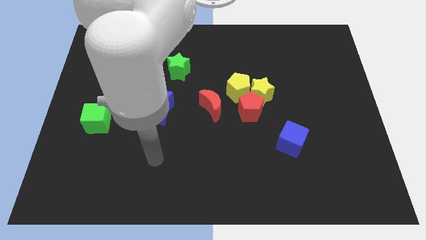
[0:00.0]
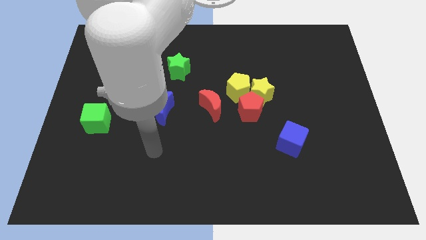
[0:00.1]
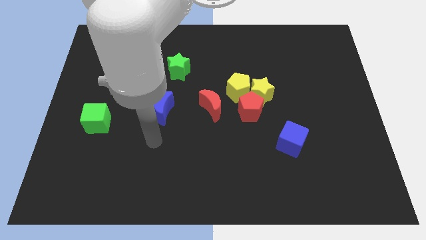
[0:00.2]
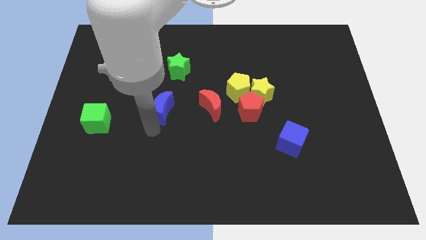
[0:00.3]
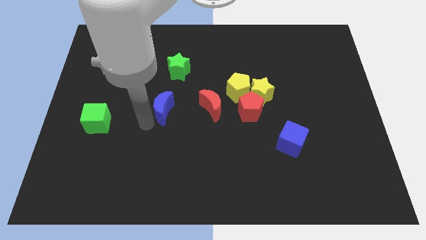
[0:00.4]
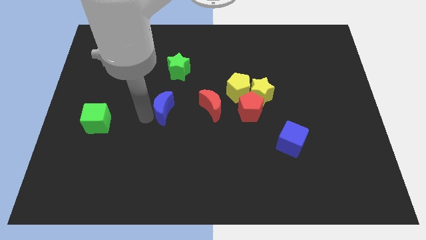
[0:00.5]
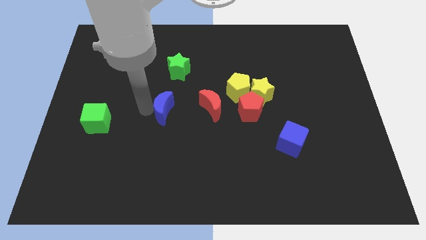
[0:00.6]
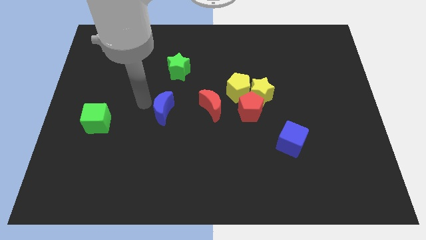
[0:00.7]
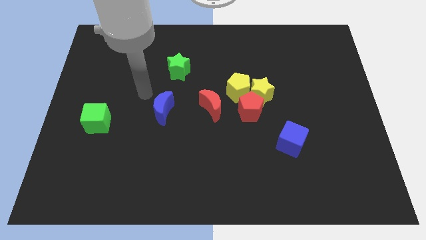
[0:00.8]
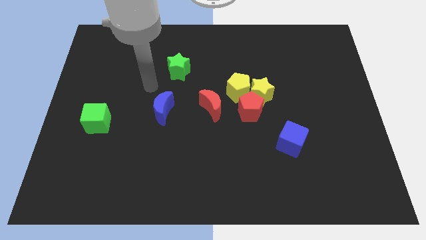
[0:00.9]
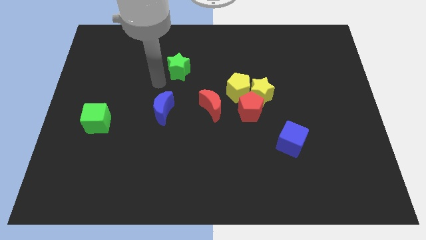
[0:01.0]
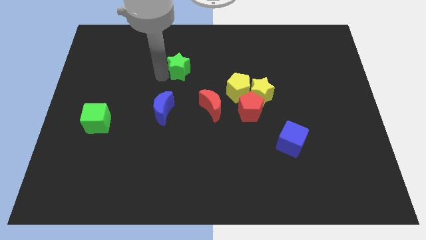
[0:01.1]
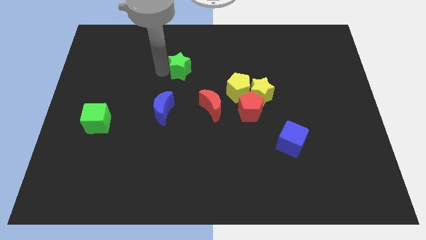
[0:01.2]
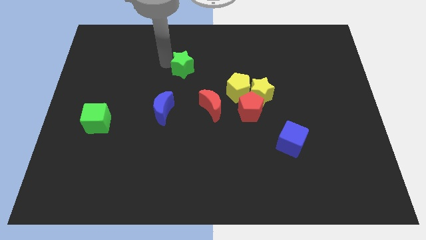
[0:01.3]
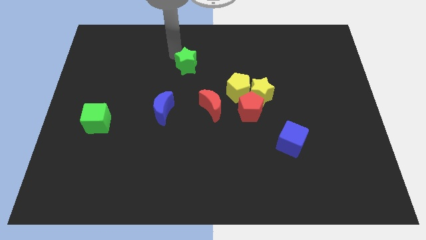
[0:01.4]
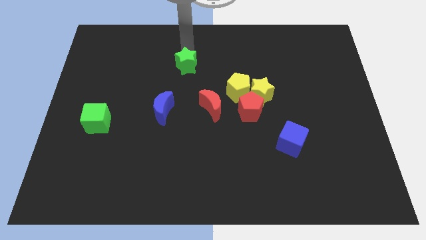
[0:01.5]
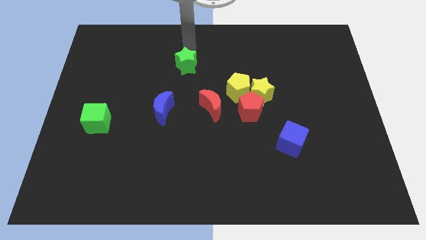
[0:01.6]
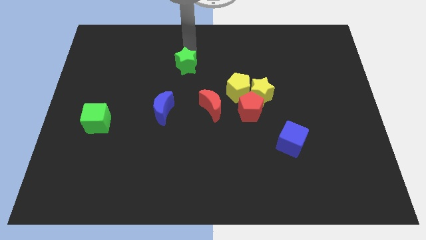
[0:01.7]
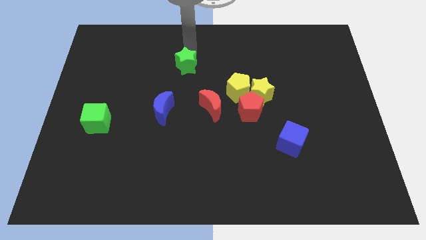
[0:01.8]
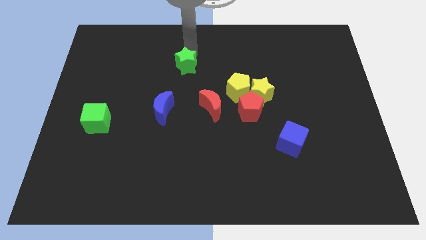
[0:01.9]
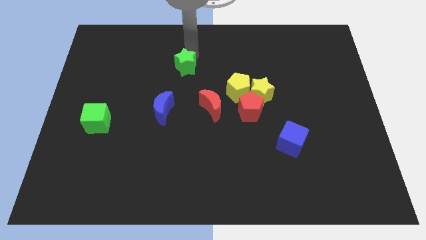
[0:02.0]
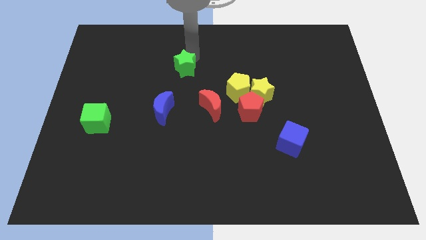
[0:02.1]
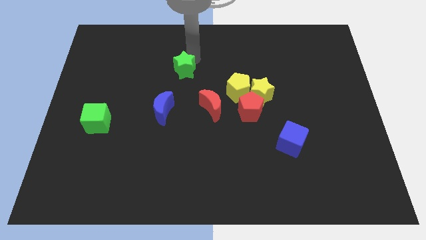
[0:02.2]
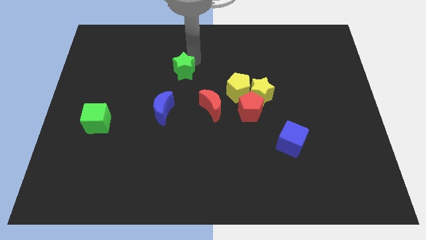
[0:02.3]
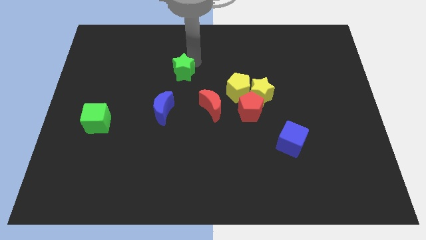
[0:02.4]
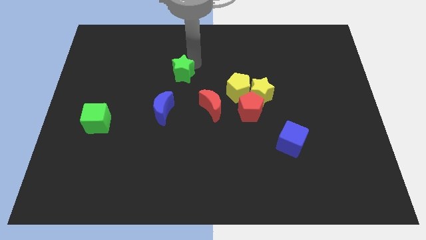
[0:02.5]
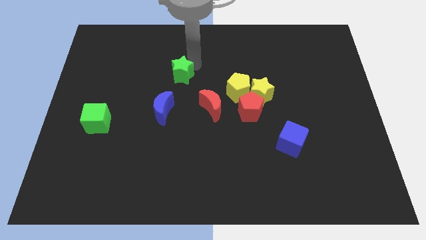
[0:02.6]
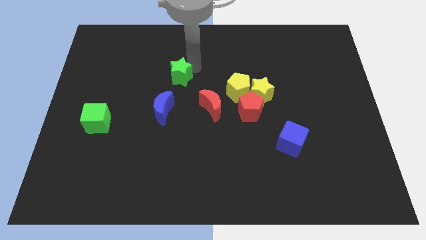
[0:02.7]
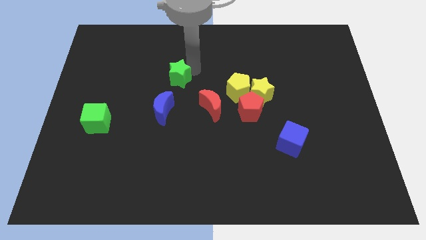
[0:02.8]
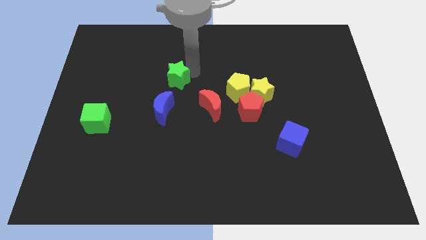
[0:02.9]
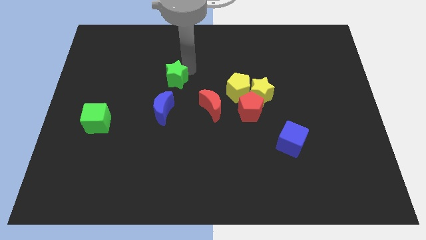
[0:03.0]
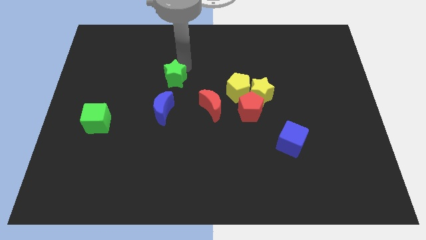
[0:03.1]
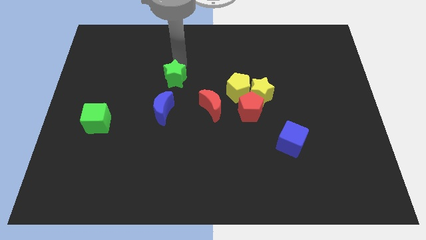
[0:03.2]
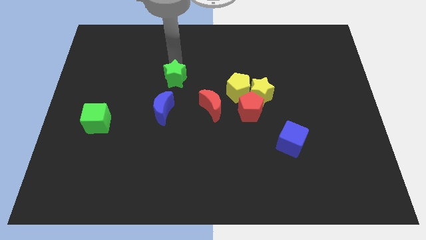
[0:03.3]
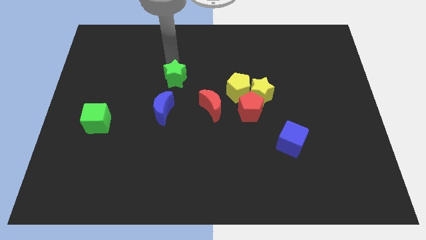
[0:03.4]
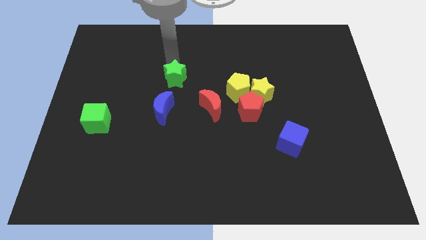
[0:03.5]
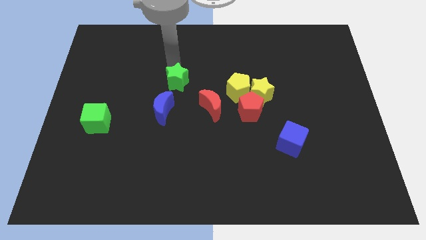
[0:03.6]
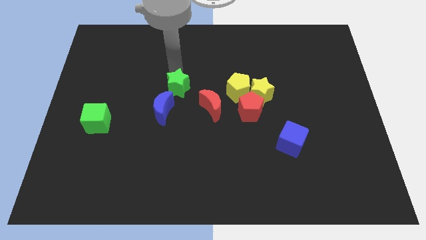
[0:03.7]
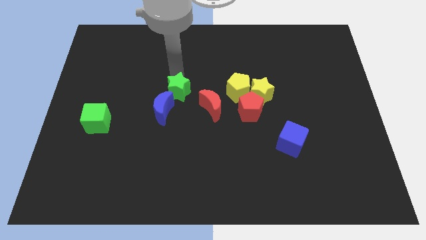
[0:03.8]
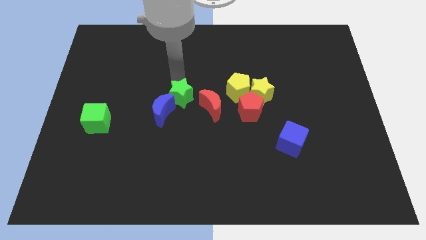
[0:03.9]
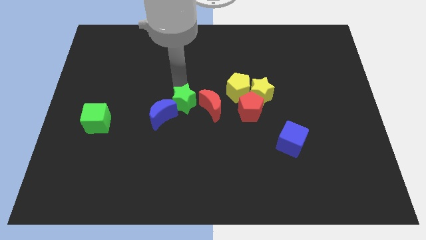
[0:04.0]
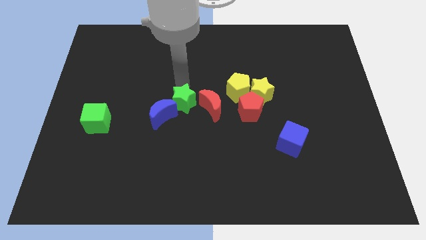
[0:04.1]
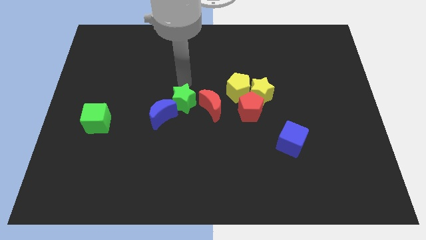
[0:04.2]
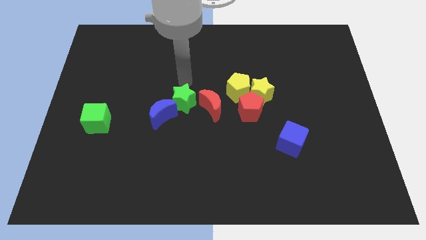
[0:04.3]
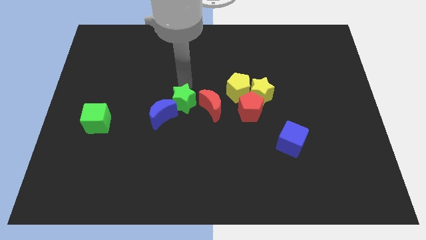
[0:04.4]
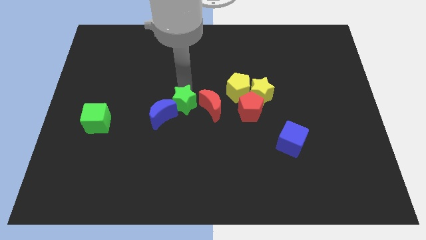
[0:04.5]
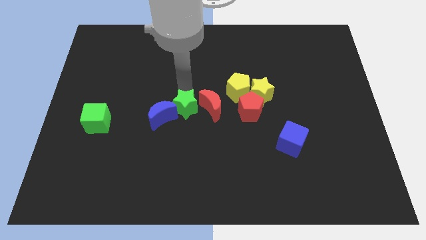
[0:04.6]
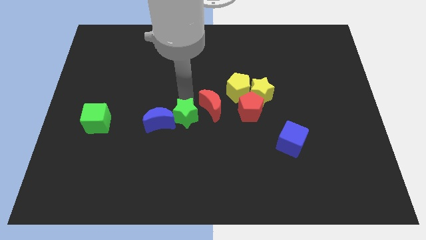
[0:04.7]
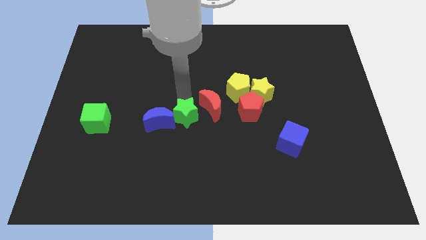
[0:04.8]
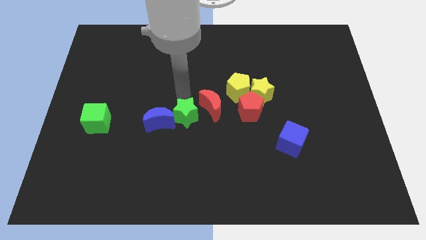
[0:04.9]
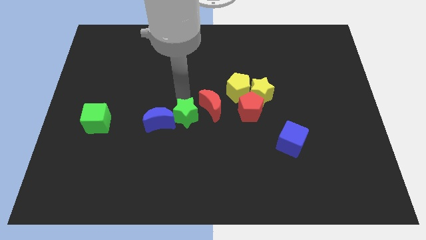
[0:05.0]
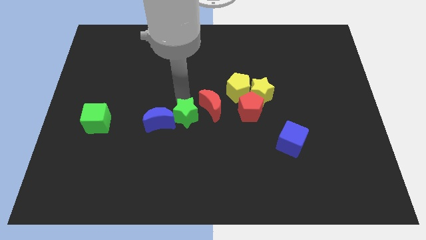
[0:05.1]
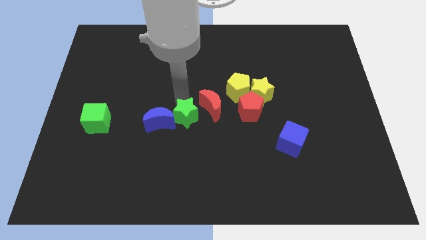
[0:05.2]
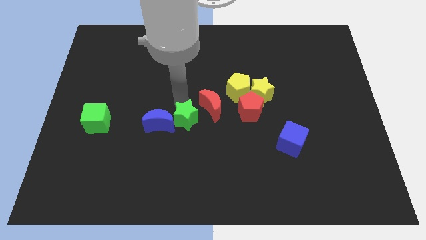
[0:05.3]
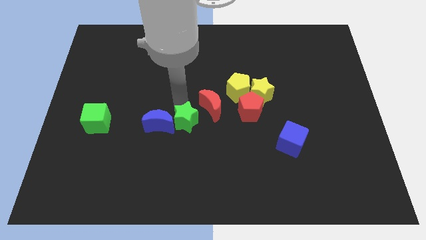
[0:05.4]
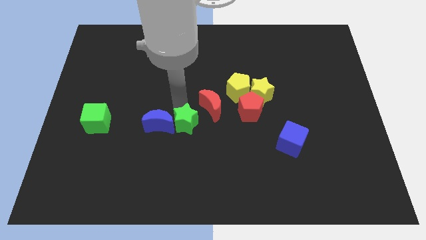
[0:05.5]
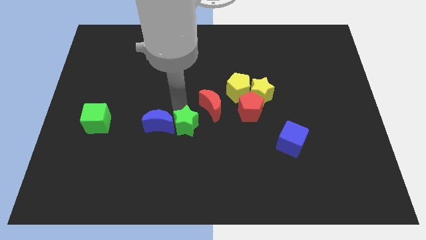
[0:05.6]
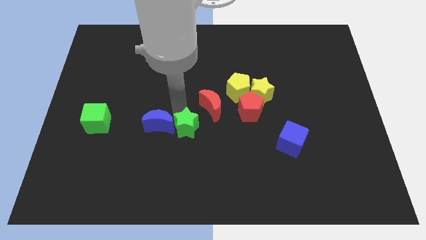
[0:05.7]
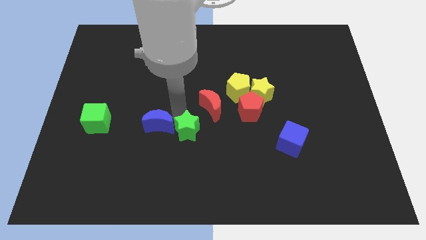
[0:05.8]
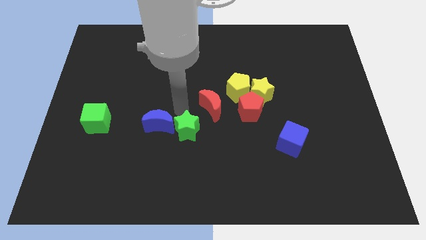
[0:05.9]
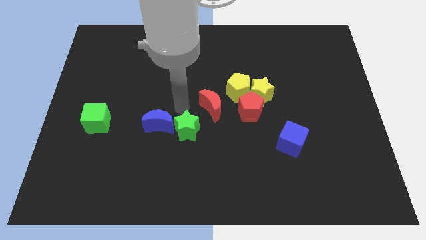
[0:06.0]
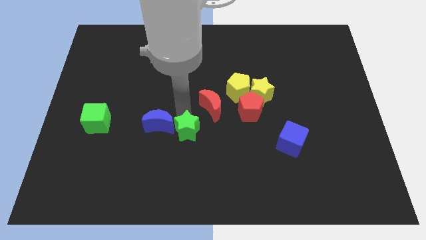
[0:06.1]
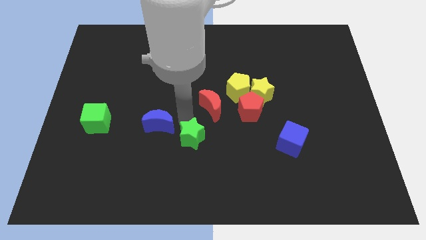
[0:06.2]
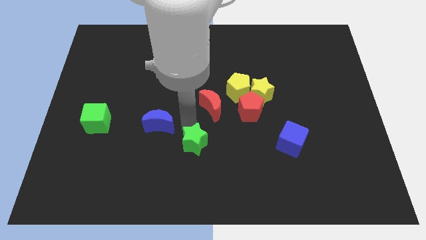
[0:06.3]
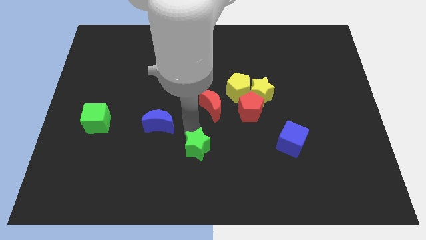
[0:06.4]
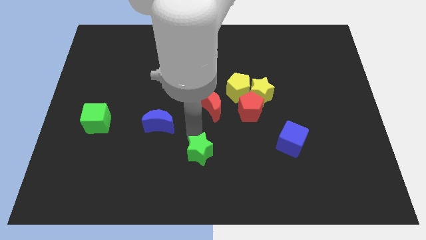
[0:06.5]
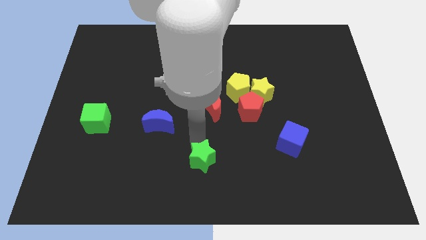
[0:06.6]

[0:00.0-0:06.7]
push the green star to the bottom side
